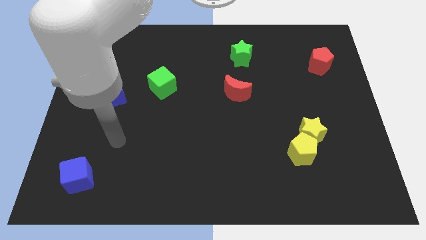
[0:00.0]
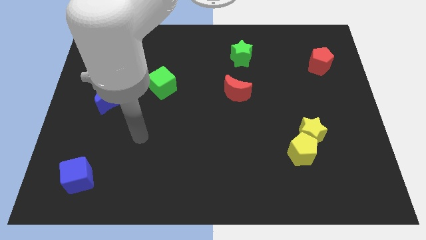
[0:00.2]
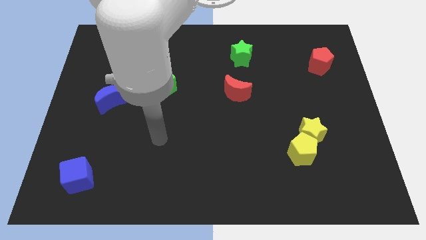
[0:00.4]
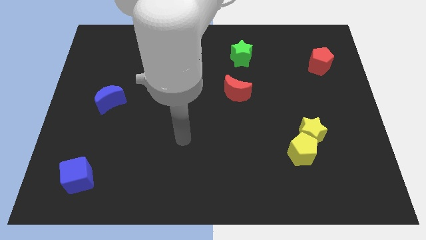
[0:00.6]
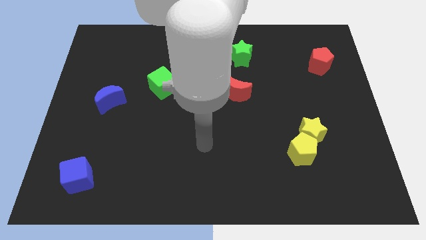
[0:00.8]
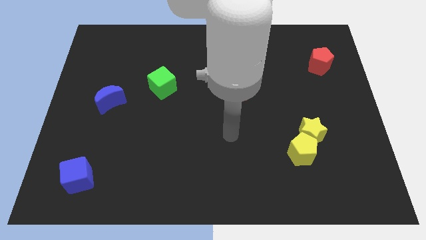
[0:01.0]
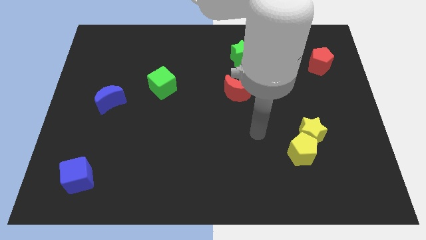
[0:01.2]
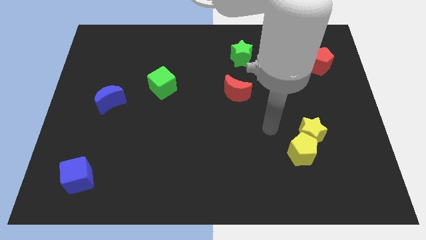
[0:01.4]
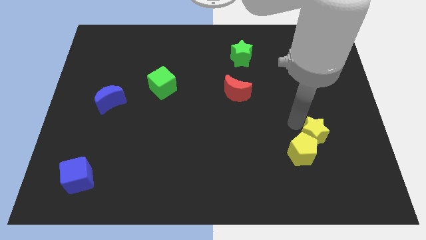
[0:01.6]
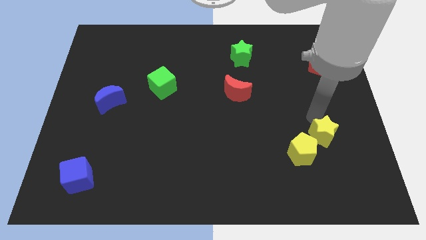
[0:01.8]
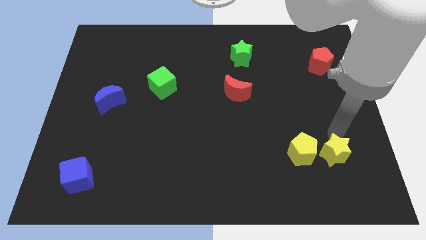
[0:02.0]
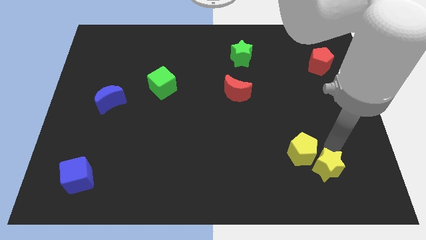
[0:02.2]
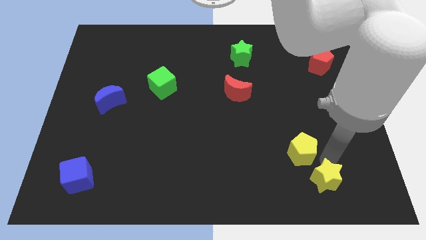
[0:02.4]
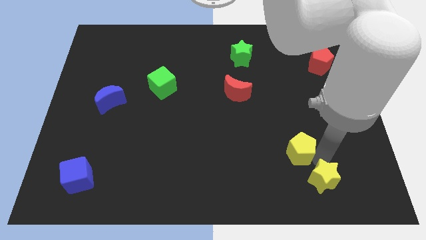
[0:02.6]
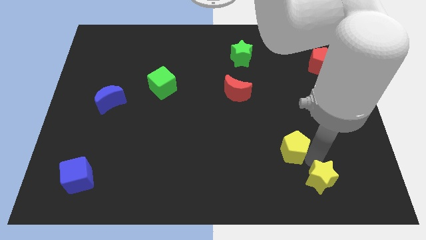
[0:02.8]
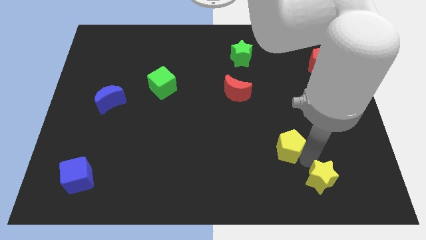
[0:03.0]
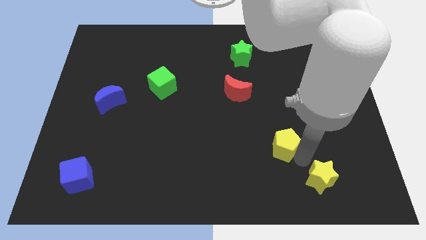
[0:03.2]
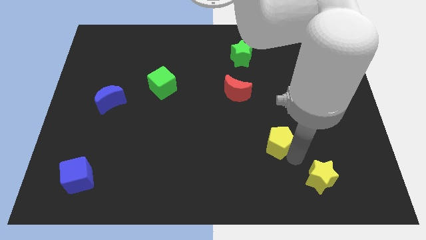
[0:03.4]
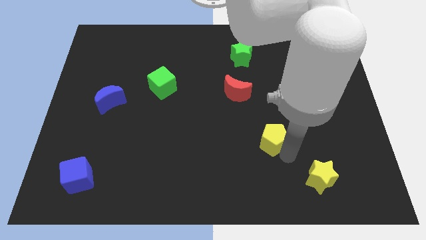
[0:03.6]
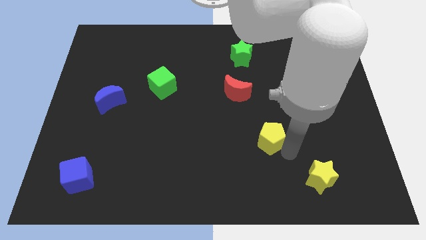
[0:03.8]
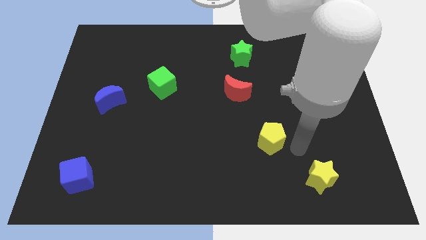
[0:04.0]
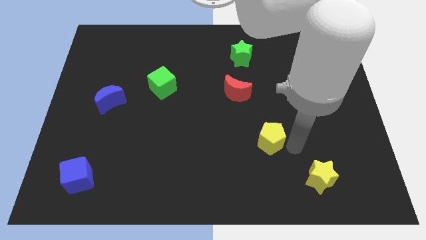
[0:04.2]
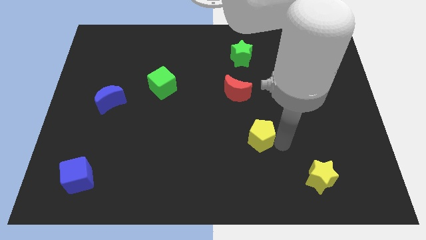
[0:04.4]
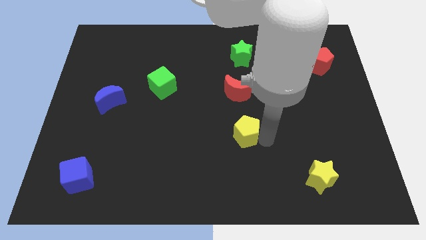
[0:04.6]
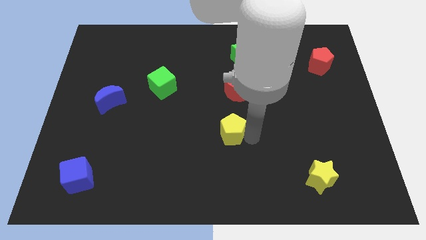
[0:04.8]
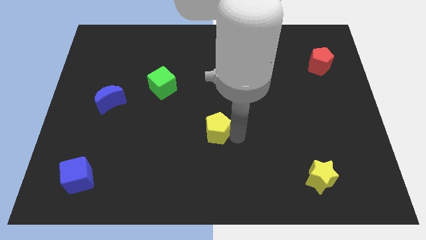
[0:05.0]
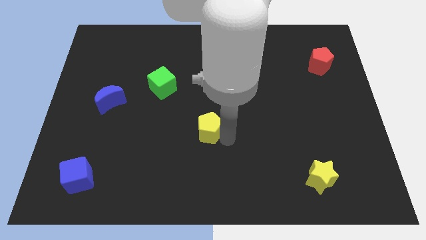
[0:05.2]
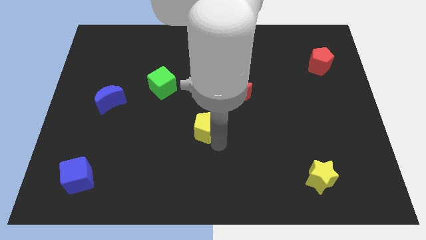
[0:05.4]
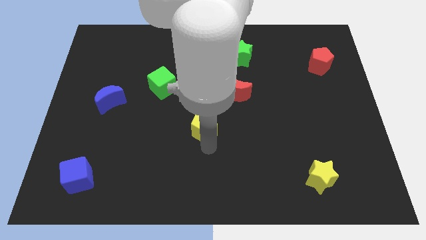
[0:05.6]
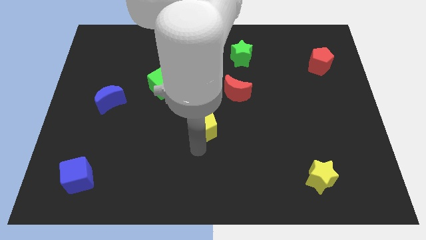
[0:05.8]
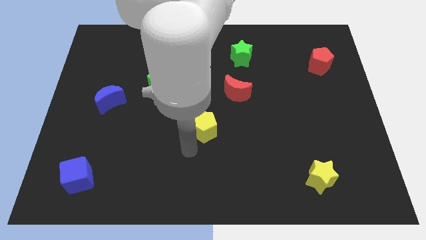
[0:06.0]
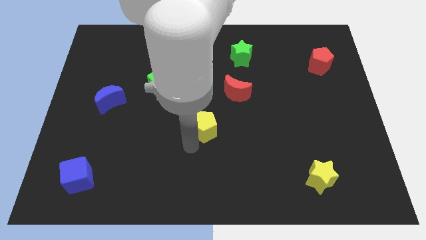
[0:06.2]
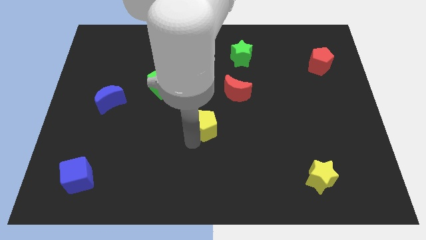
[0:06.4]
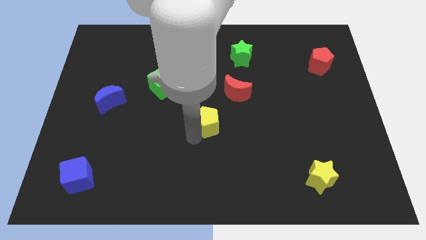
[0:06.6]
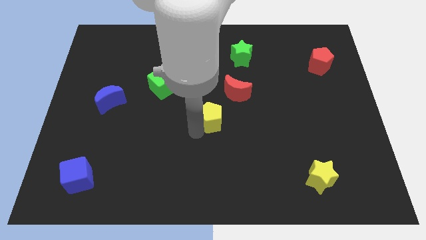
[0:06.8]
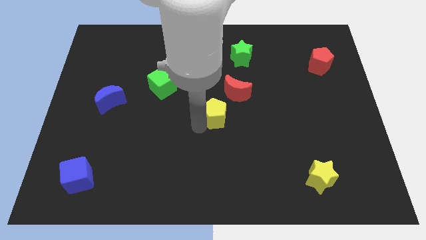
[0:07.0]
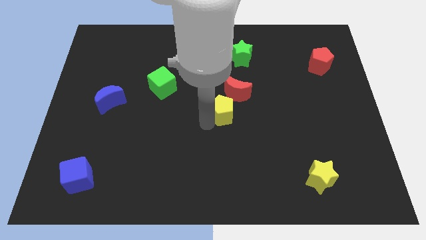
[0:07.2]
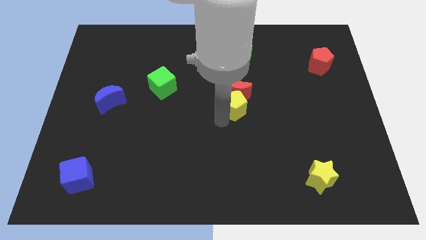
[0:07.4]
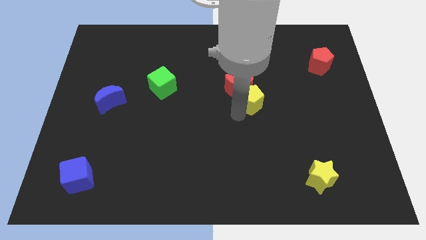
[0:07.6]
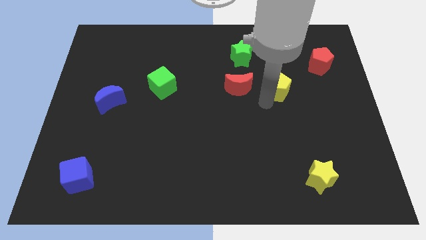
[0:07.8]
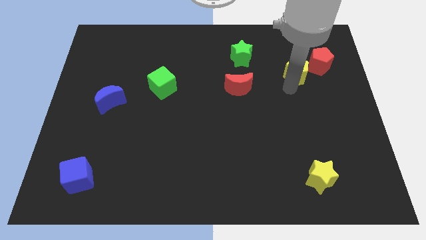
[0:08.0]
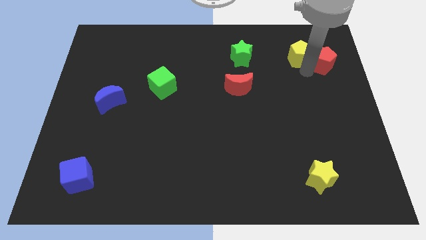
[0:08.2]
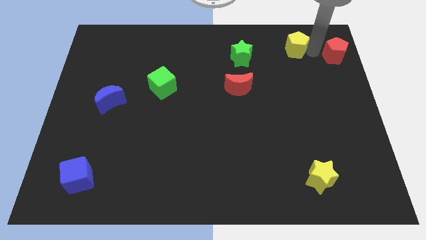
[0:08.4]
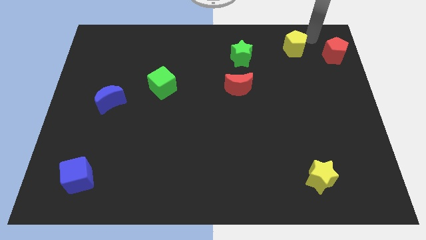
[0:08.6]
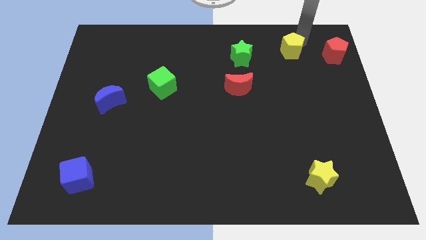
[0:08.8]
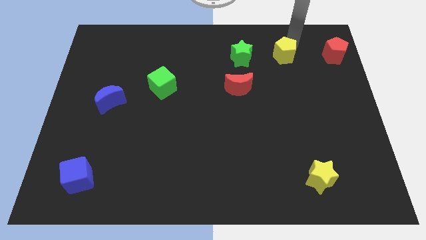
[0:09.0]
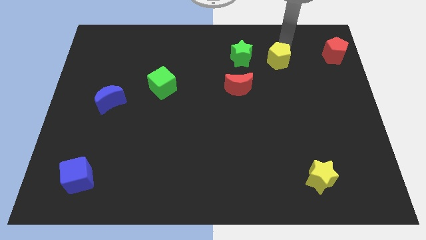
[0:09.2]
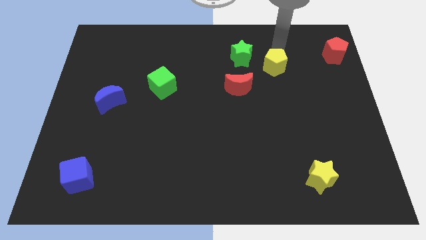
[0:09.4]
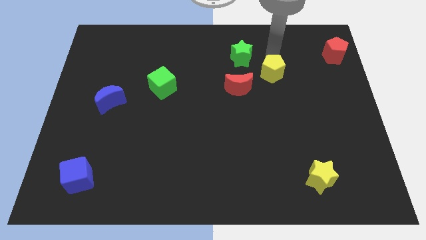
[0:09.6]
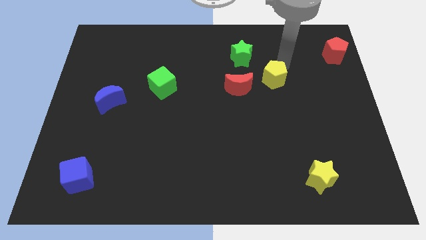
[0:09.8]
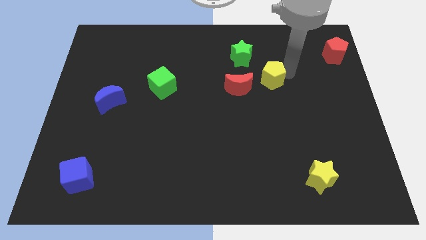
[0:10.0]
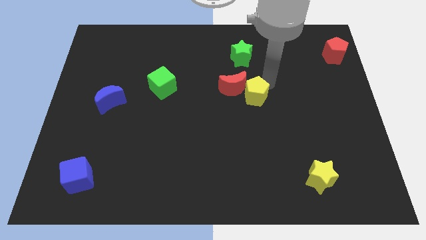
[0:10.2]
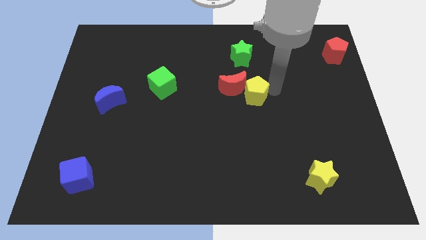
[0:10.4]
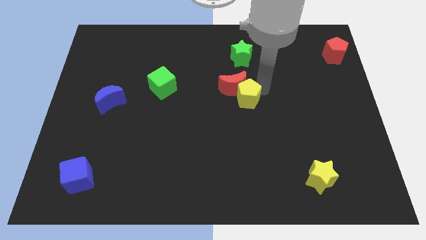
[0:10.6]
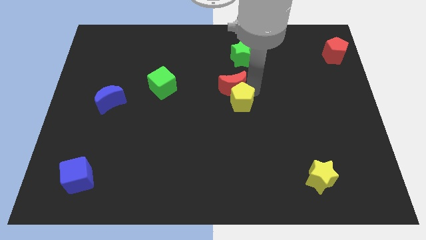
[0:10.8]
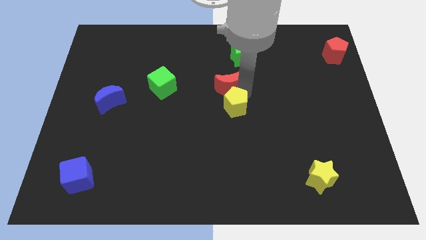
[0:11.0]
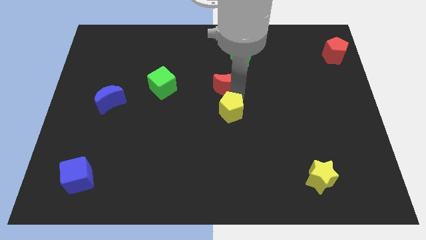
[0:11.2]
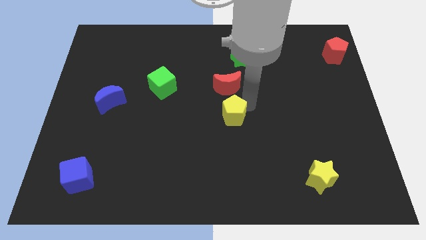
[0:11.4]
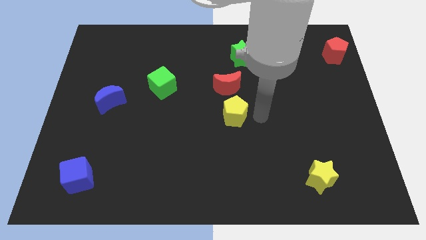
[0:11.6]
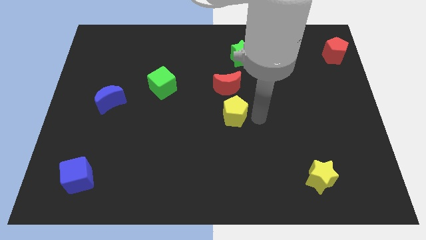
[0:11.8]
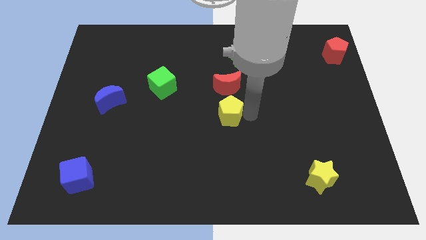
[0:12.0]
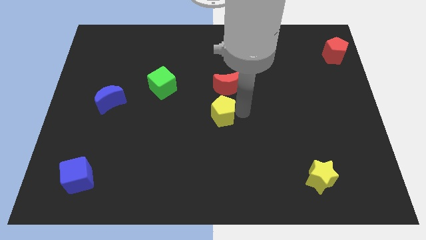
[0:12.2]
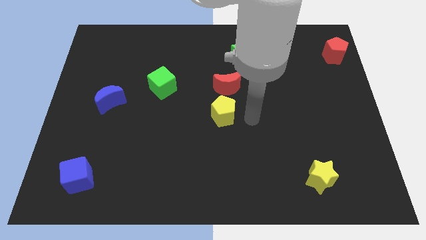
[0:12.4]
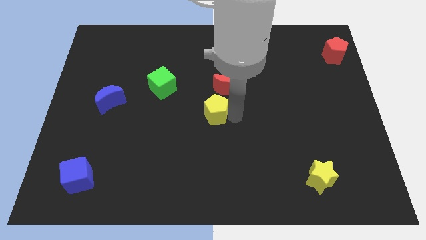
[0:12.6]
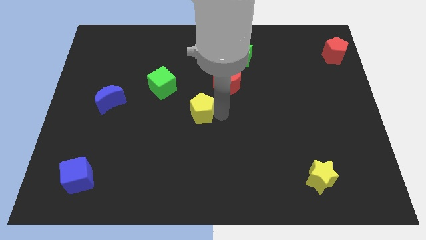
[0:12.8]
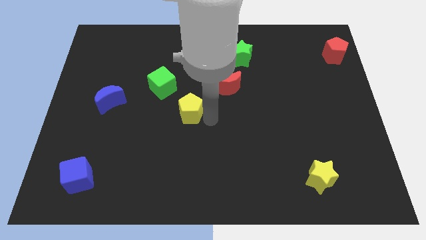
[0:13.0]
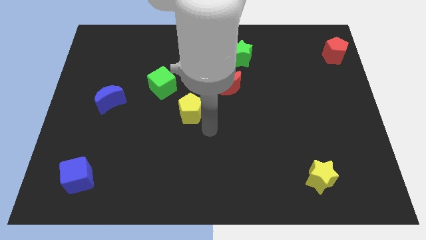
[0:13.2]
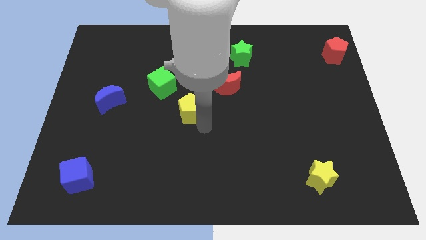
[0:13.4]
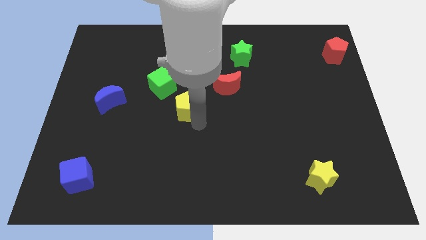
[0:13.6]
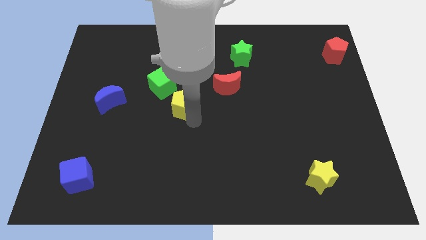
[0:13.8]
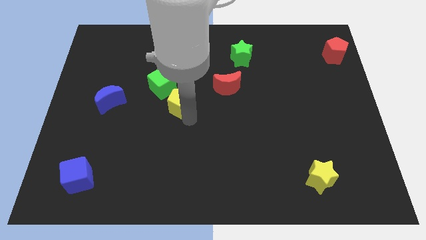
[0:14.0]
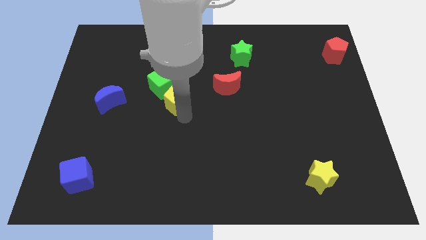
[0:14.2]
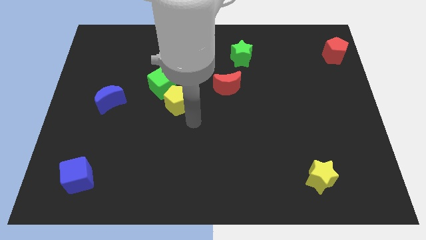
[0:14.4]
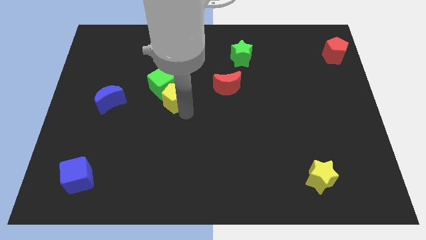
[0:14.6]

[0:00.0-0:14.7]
move the yellow pentagon towards the green cube
